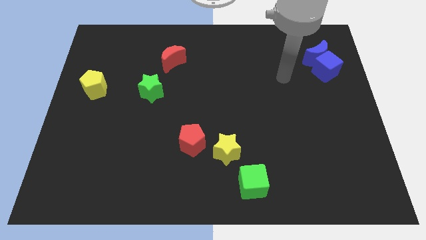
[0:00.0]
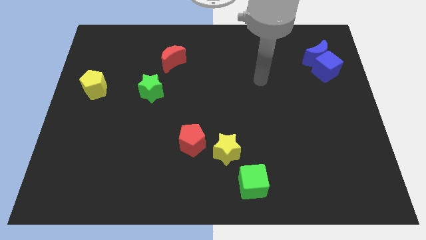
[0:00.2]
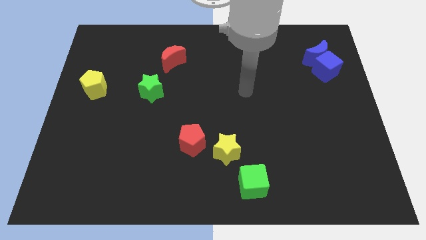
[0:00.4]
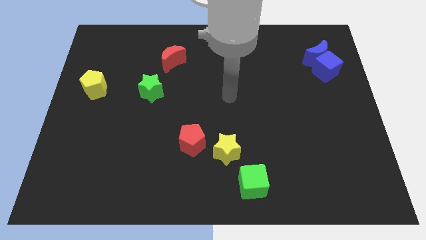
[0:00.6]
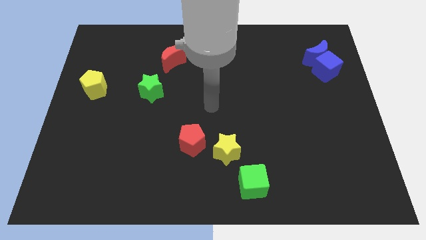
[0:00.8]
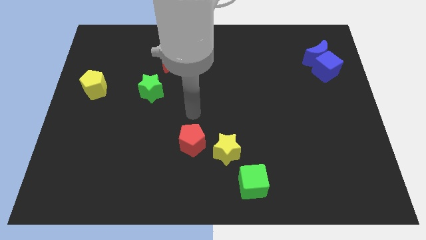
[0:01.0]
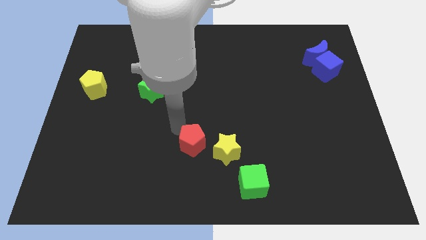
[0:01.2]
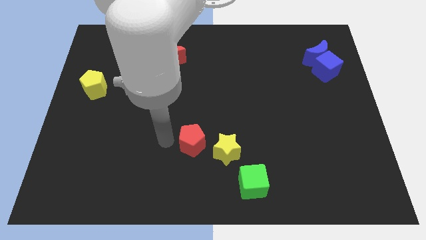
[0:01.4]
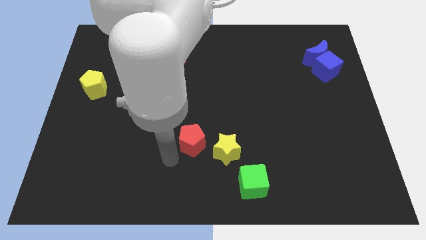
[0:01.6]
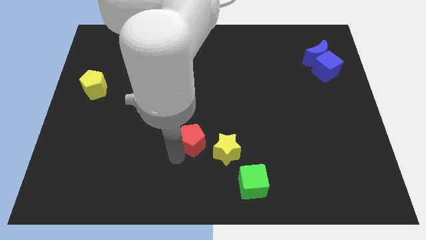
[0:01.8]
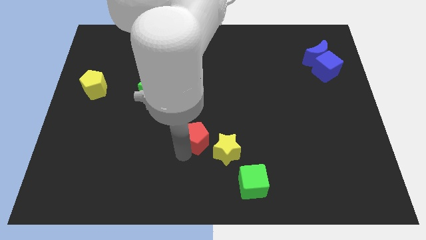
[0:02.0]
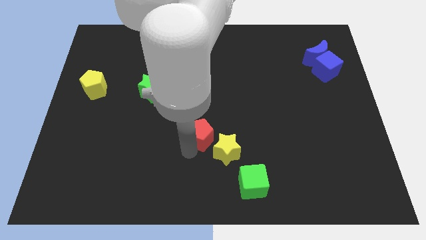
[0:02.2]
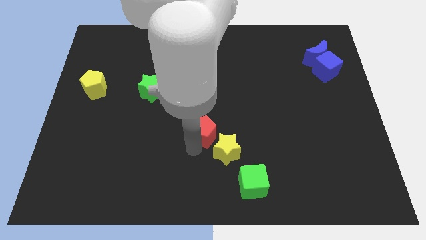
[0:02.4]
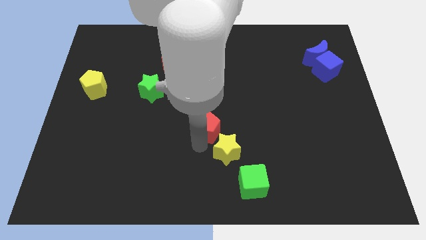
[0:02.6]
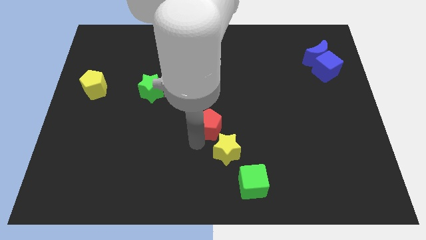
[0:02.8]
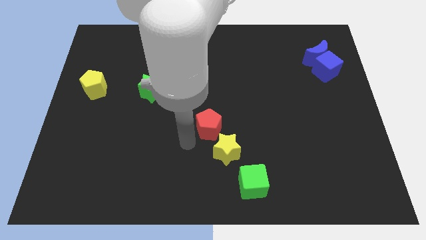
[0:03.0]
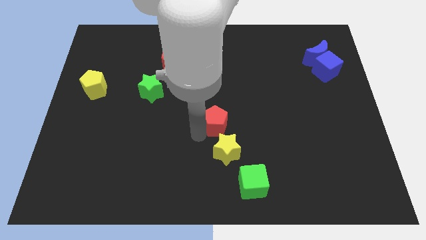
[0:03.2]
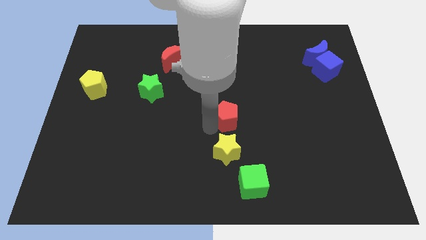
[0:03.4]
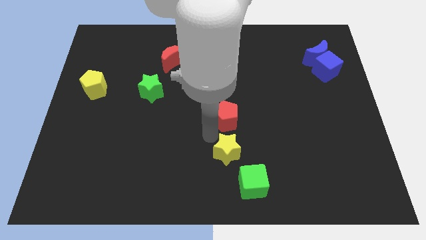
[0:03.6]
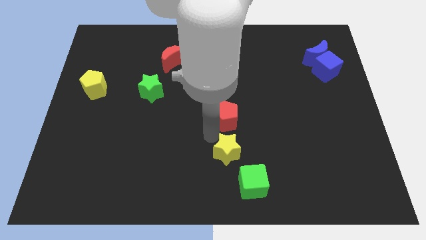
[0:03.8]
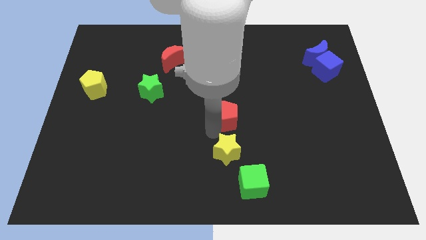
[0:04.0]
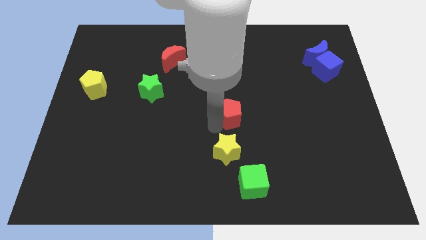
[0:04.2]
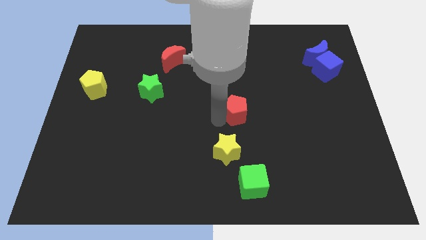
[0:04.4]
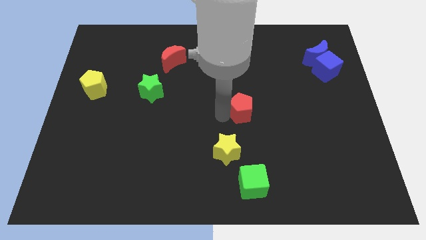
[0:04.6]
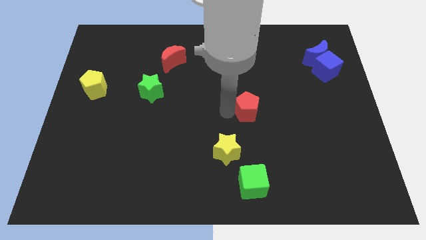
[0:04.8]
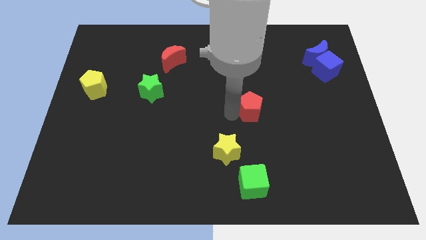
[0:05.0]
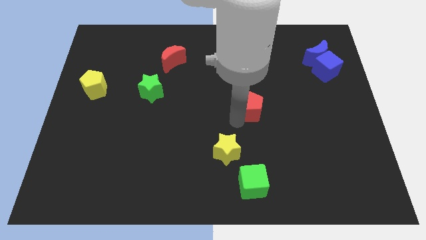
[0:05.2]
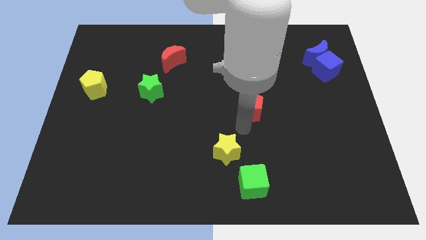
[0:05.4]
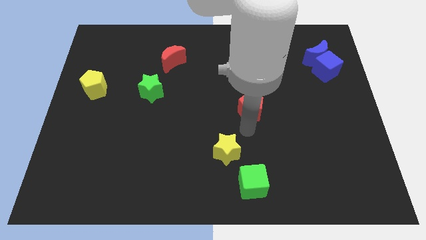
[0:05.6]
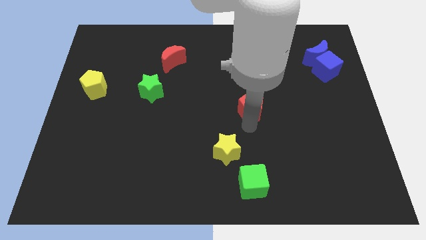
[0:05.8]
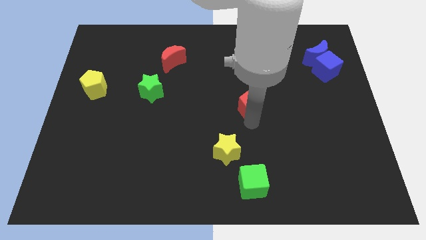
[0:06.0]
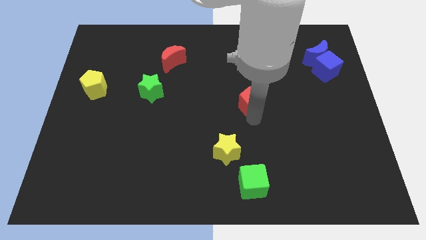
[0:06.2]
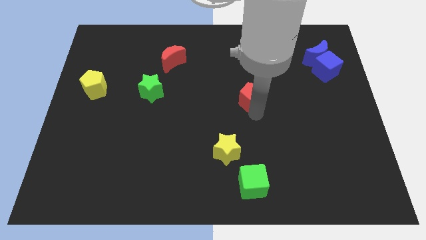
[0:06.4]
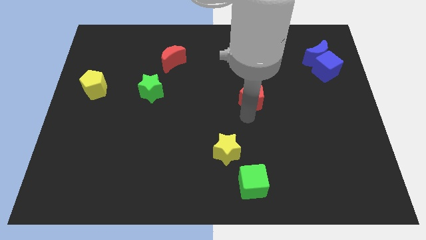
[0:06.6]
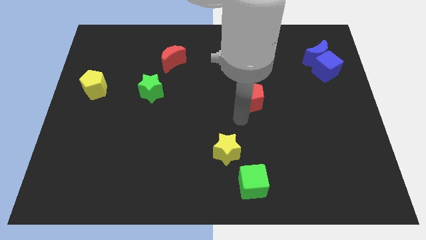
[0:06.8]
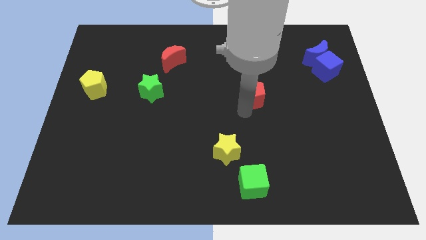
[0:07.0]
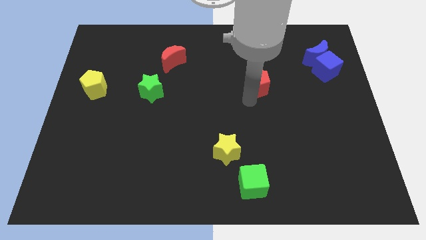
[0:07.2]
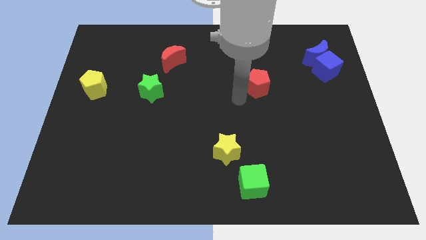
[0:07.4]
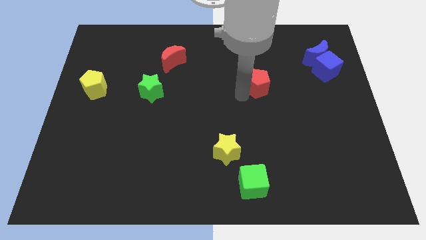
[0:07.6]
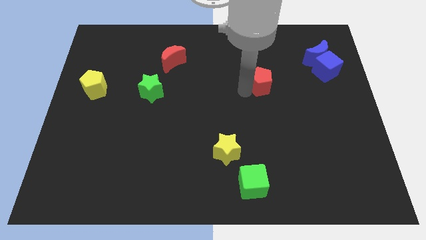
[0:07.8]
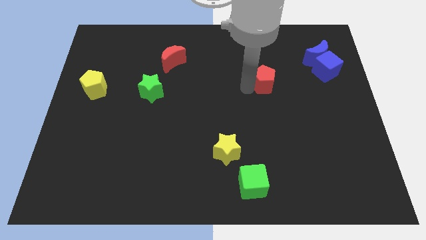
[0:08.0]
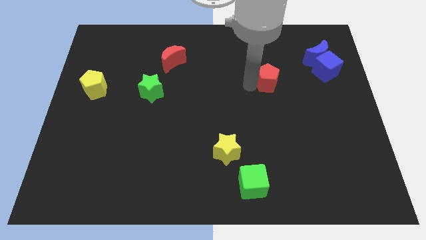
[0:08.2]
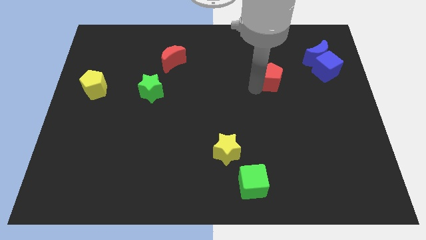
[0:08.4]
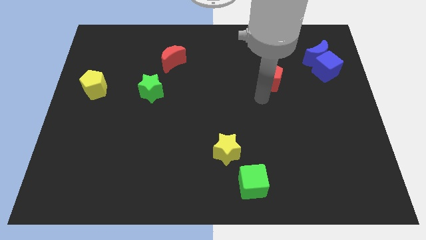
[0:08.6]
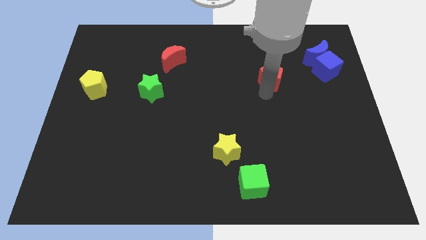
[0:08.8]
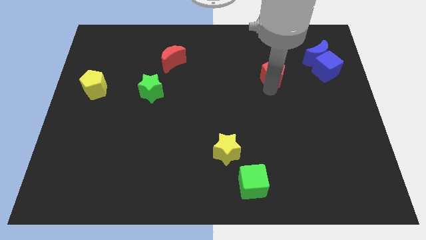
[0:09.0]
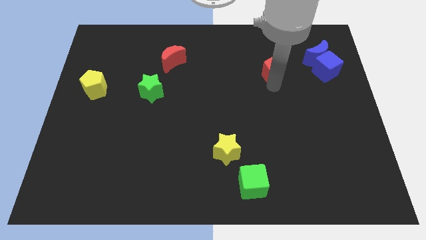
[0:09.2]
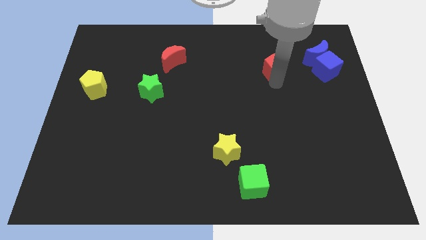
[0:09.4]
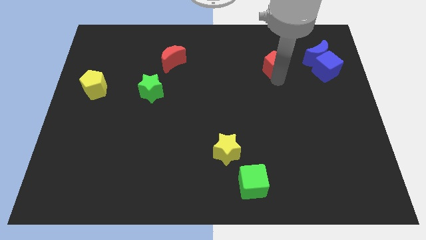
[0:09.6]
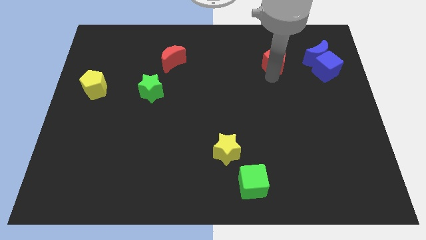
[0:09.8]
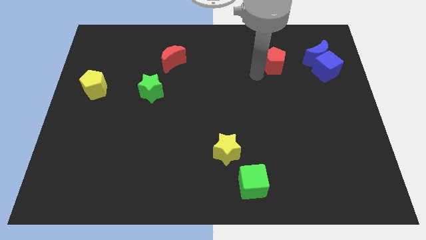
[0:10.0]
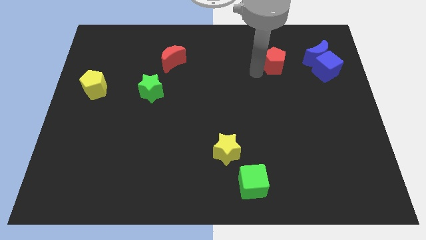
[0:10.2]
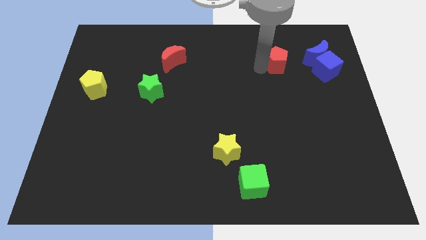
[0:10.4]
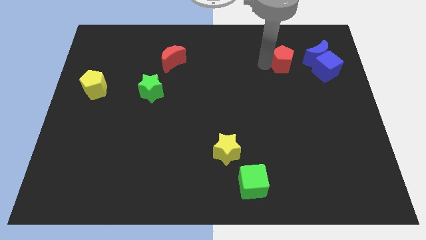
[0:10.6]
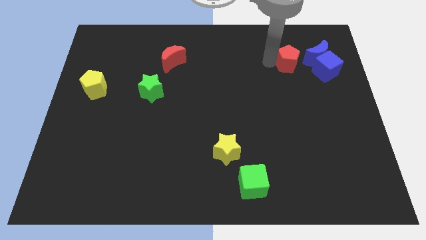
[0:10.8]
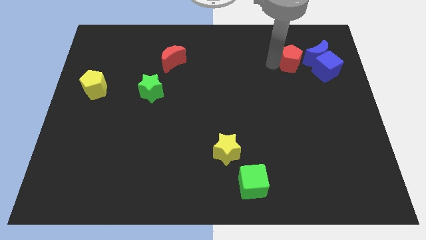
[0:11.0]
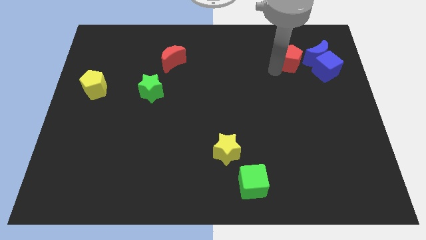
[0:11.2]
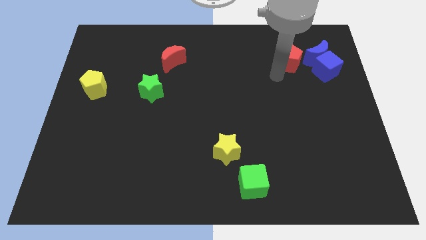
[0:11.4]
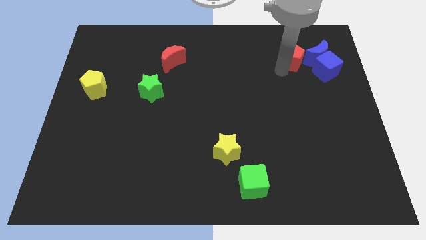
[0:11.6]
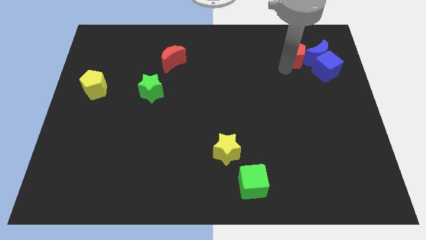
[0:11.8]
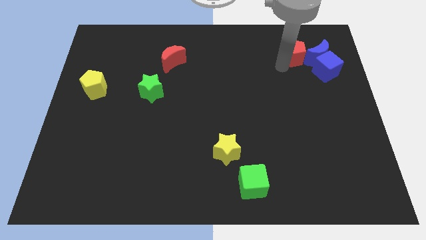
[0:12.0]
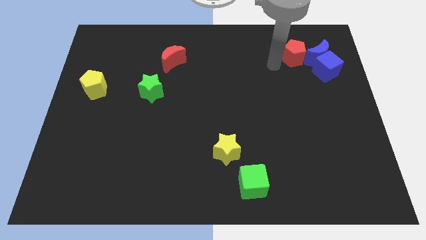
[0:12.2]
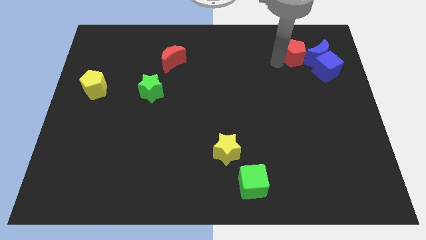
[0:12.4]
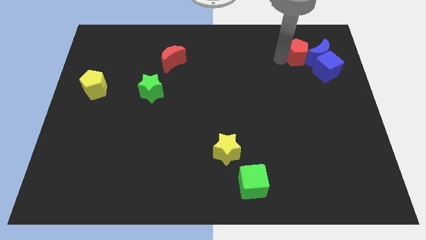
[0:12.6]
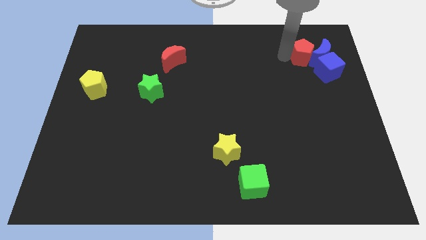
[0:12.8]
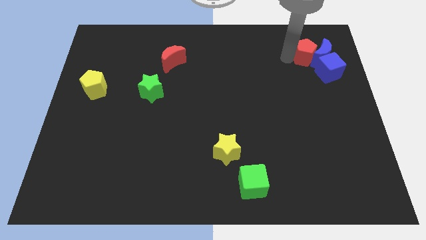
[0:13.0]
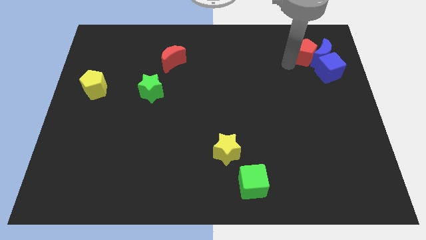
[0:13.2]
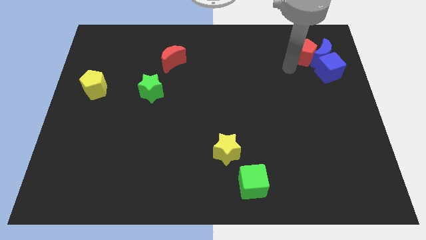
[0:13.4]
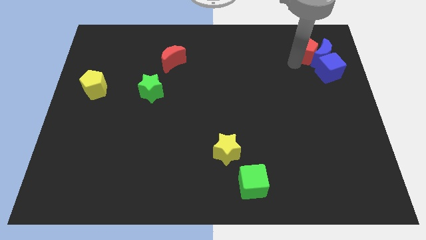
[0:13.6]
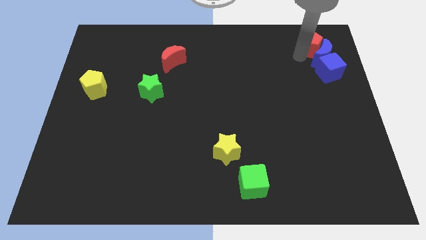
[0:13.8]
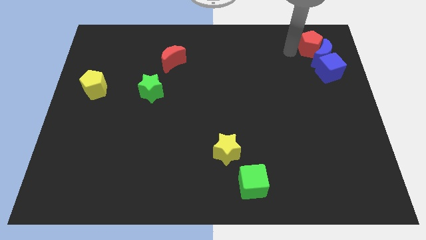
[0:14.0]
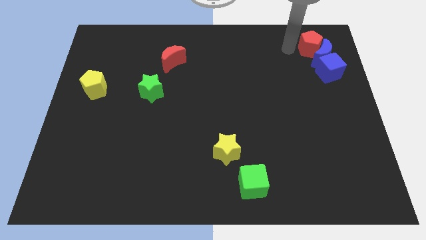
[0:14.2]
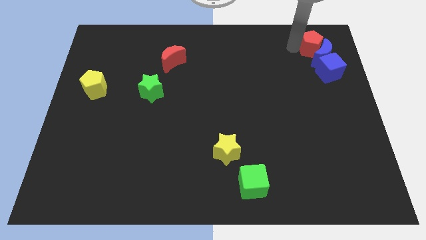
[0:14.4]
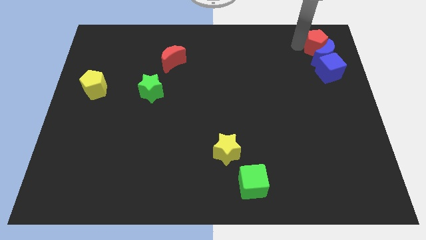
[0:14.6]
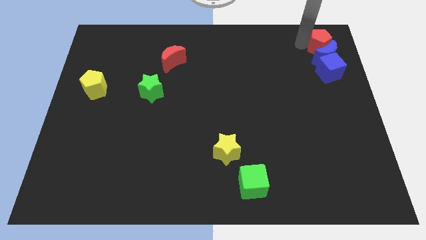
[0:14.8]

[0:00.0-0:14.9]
slide the red pentagon to the top right corner
